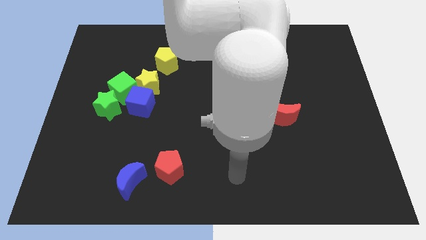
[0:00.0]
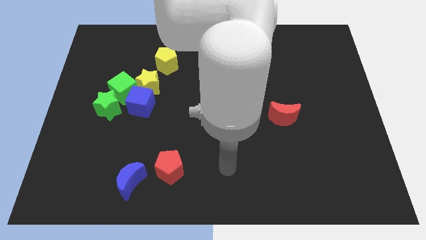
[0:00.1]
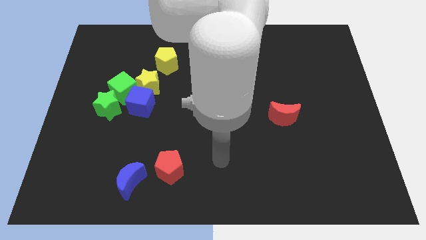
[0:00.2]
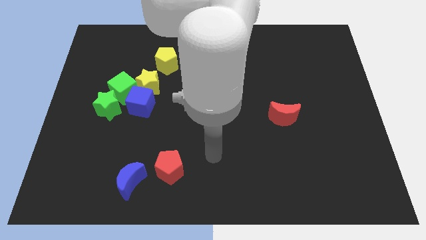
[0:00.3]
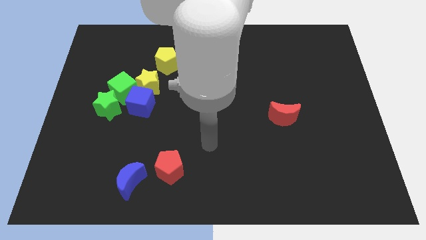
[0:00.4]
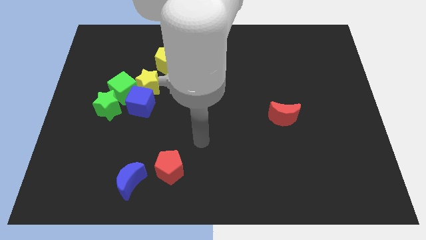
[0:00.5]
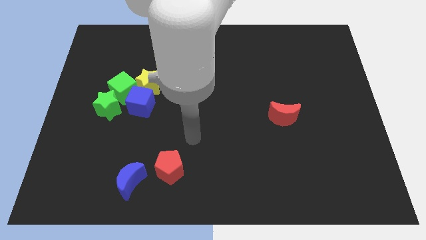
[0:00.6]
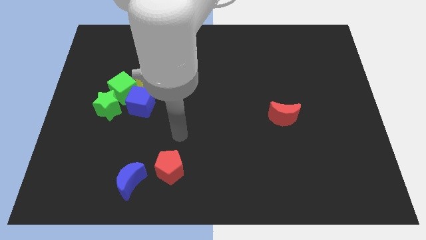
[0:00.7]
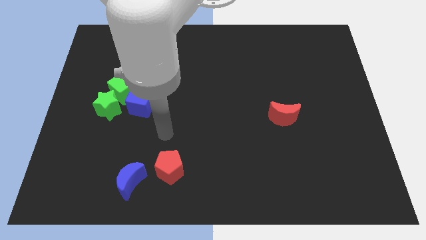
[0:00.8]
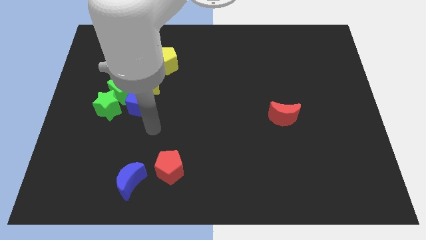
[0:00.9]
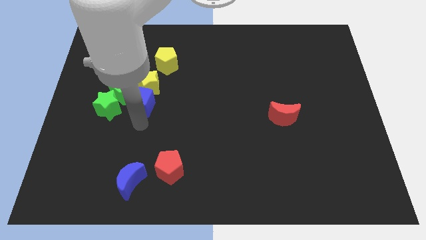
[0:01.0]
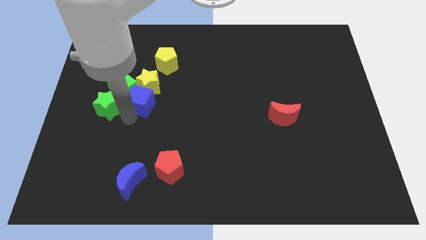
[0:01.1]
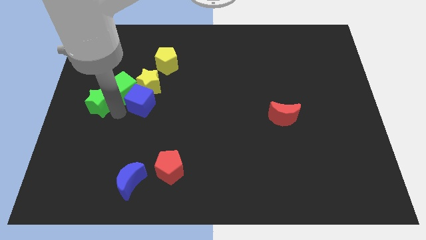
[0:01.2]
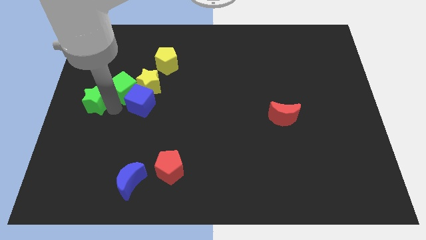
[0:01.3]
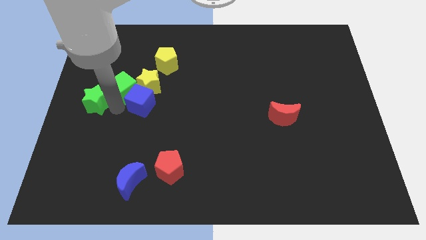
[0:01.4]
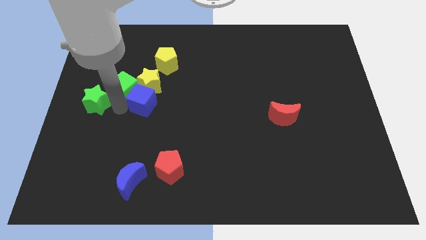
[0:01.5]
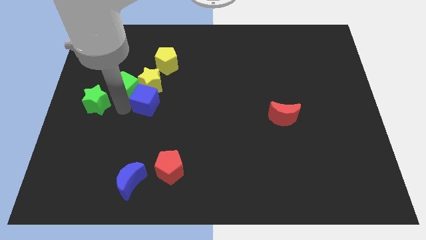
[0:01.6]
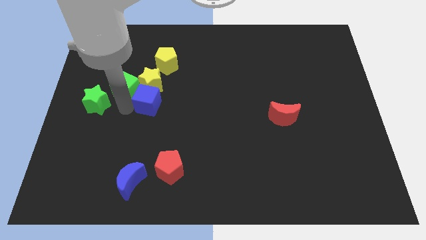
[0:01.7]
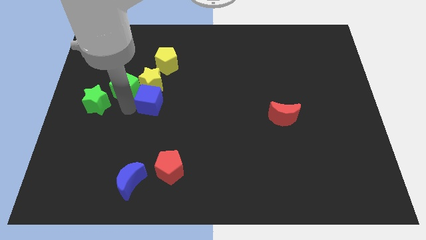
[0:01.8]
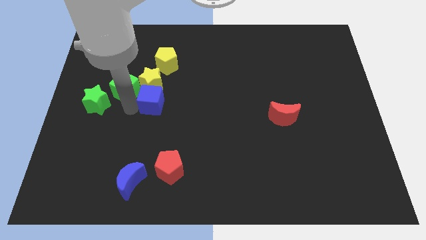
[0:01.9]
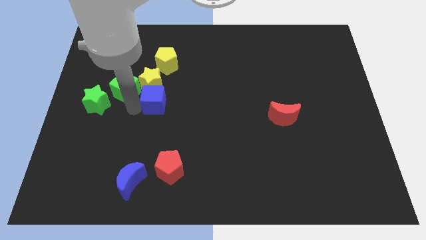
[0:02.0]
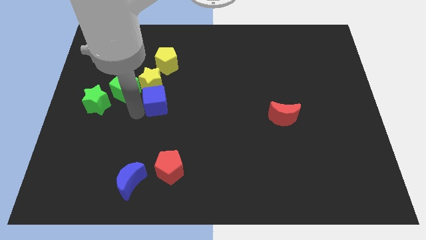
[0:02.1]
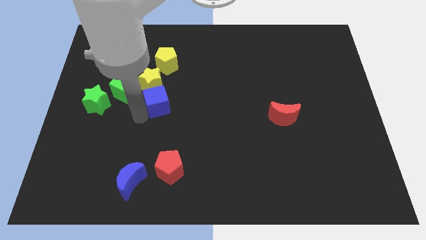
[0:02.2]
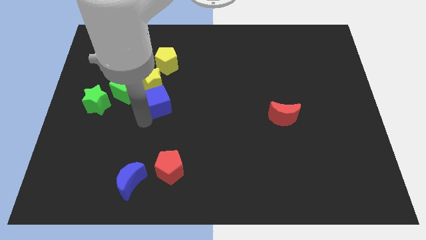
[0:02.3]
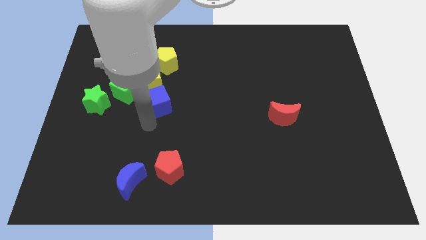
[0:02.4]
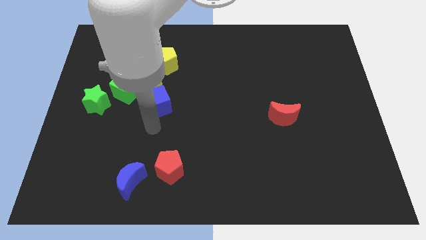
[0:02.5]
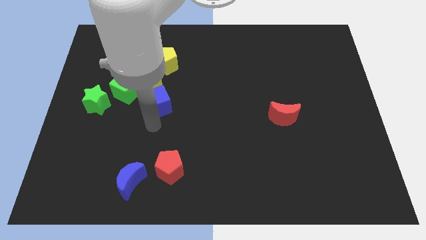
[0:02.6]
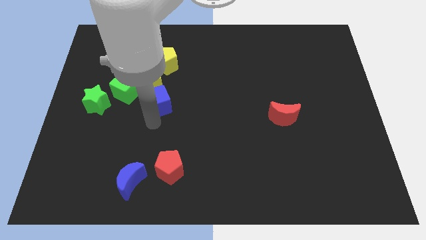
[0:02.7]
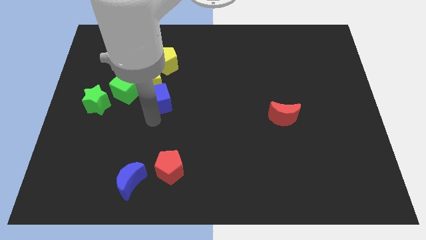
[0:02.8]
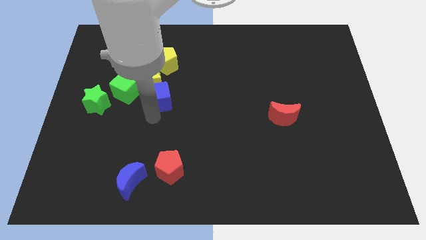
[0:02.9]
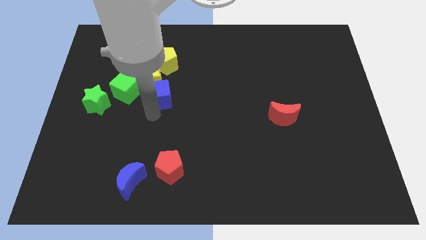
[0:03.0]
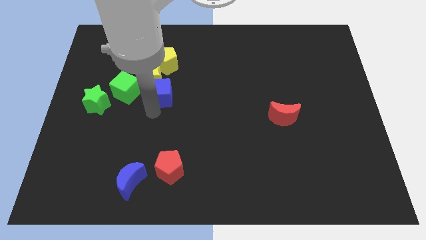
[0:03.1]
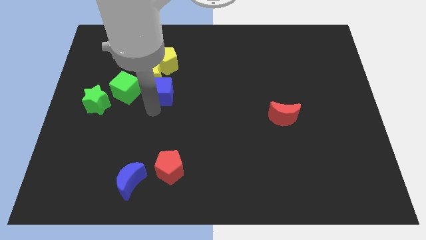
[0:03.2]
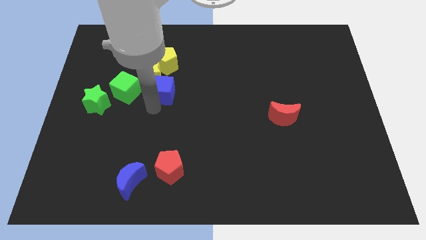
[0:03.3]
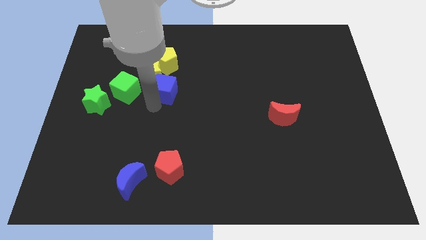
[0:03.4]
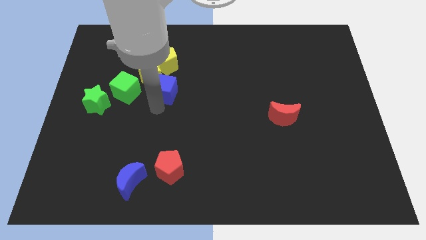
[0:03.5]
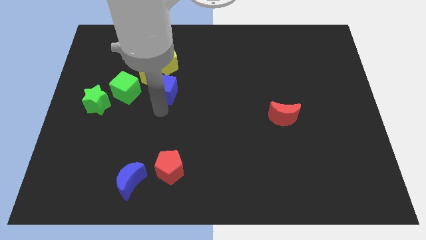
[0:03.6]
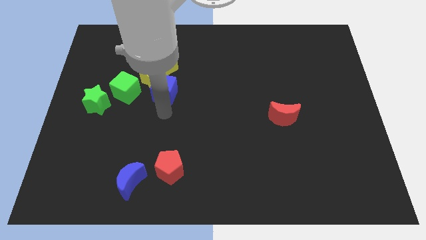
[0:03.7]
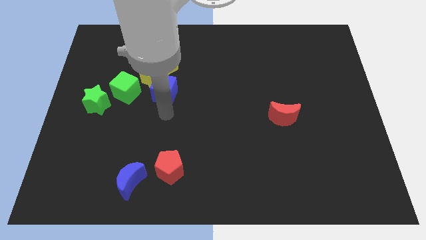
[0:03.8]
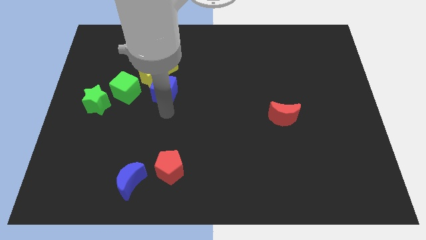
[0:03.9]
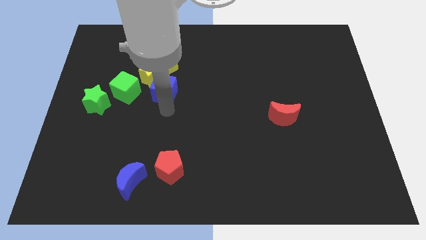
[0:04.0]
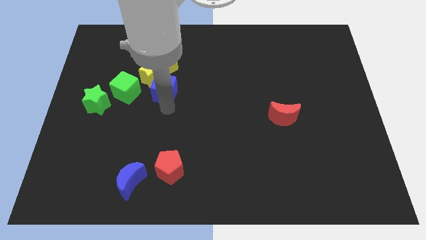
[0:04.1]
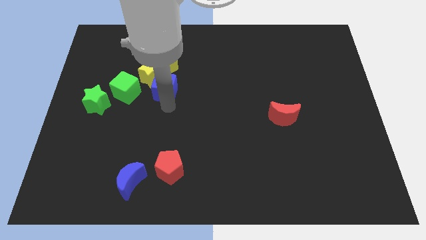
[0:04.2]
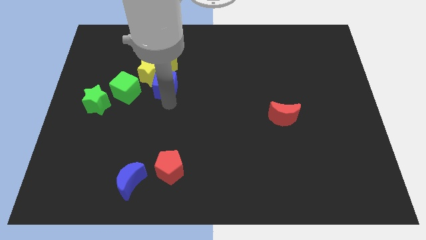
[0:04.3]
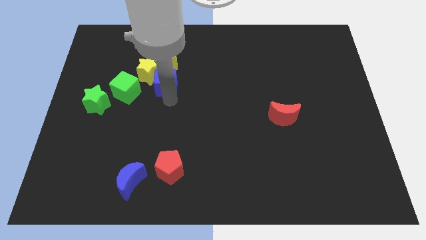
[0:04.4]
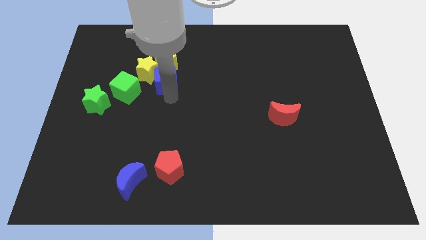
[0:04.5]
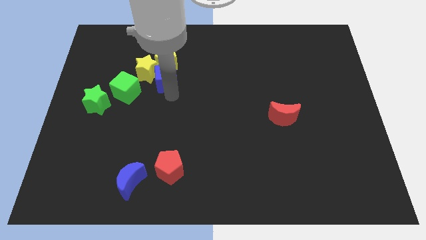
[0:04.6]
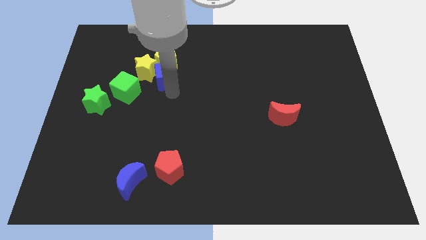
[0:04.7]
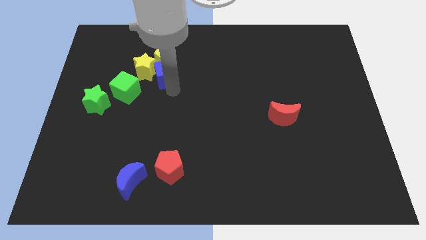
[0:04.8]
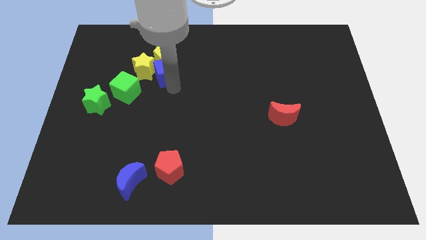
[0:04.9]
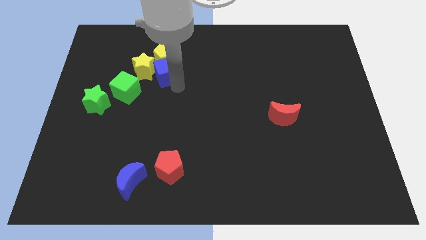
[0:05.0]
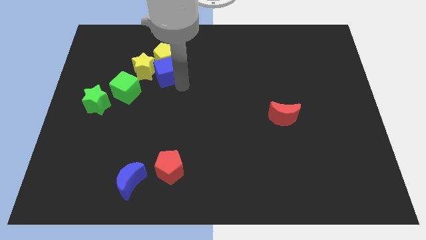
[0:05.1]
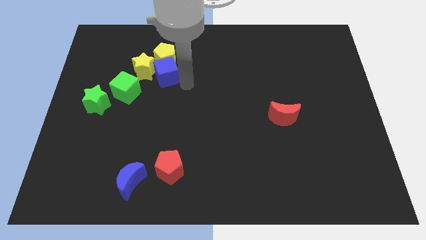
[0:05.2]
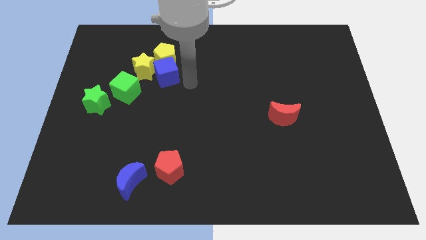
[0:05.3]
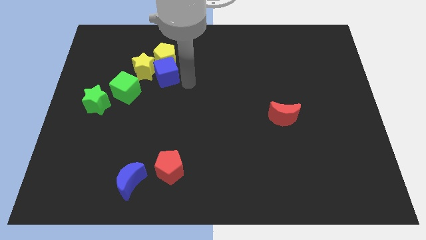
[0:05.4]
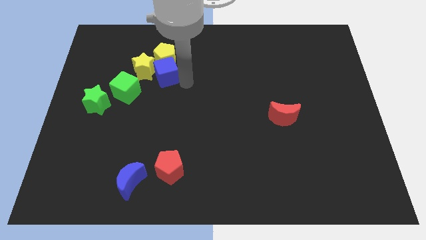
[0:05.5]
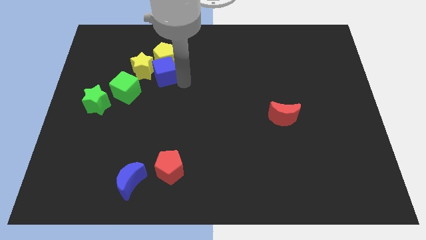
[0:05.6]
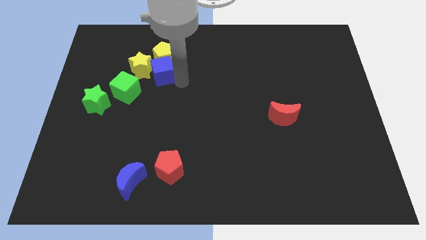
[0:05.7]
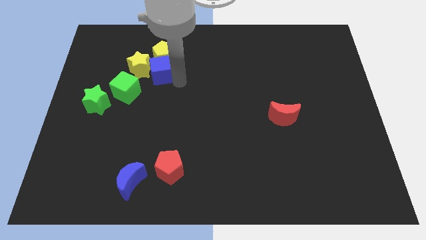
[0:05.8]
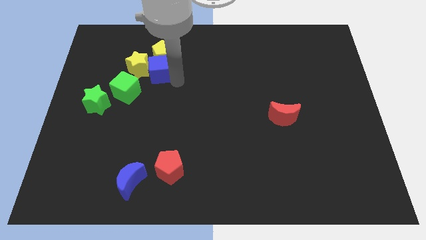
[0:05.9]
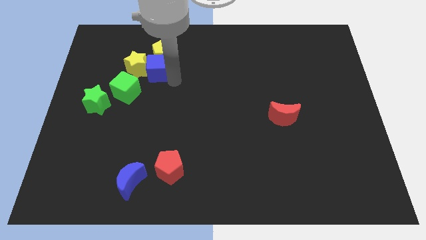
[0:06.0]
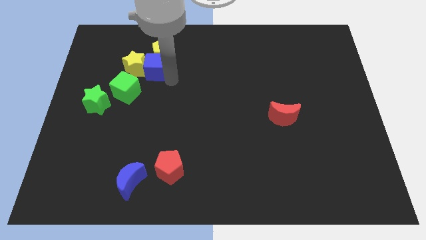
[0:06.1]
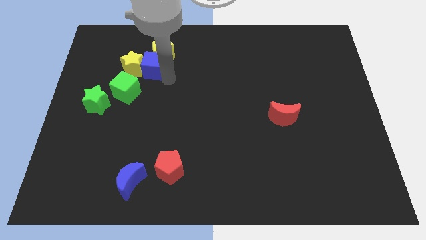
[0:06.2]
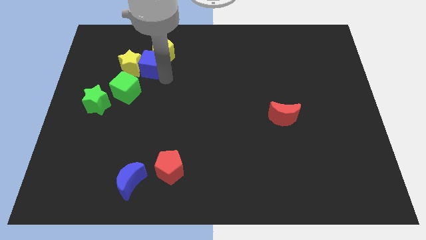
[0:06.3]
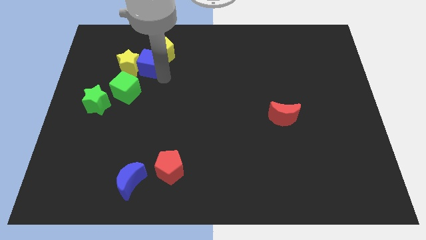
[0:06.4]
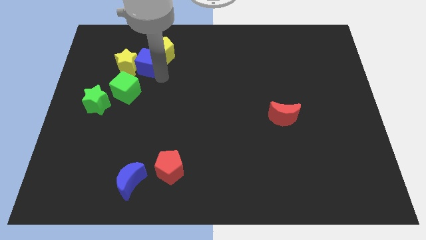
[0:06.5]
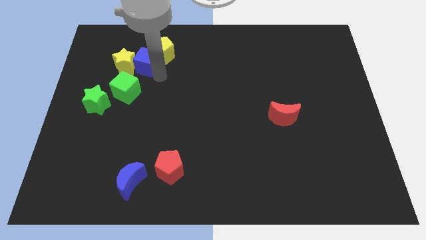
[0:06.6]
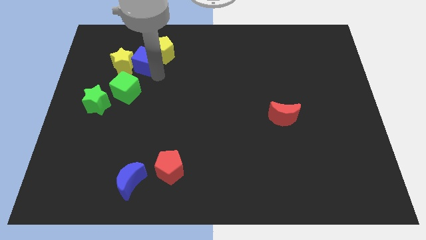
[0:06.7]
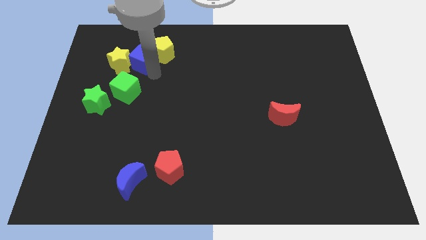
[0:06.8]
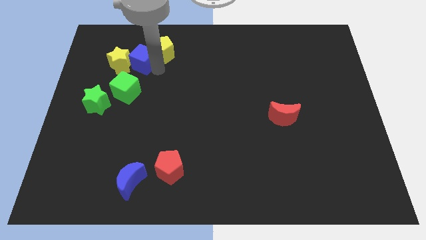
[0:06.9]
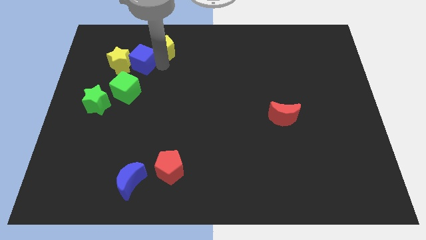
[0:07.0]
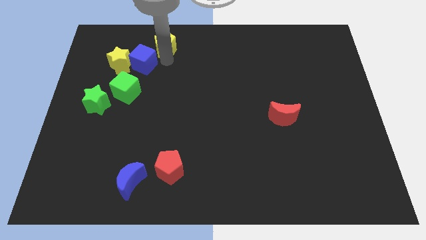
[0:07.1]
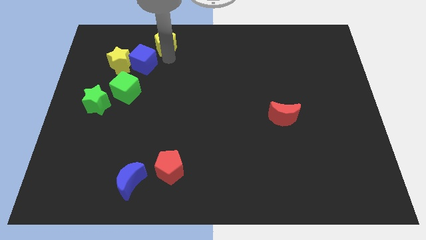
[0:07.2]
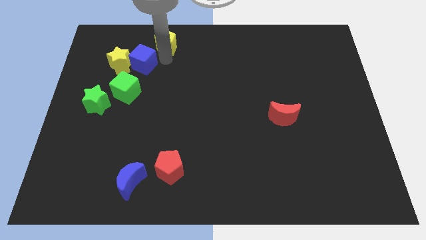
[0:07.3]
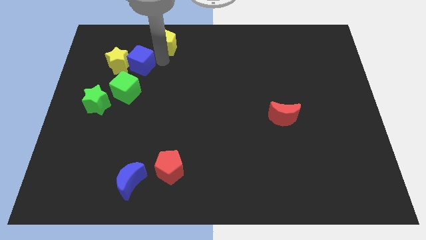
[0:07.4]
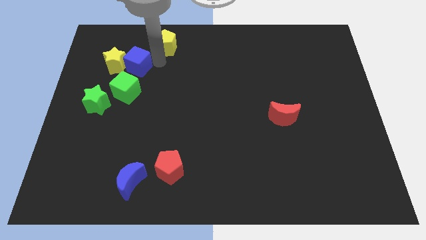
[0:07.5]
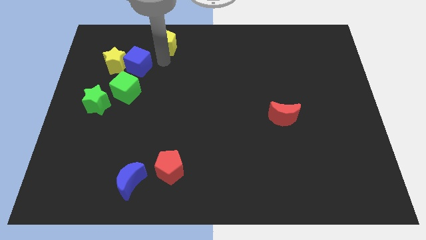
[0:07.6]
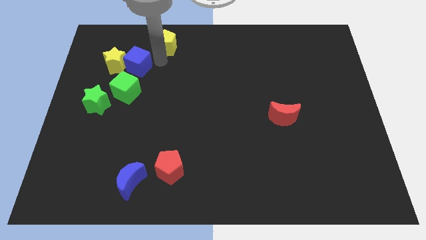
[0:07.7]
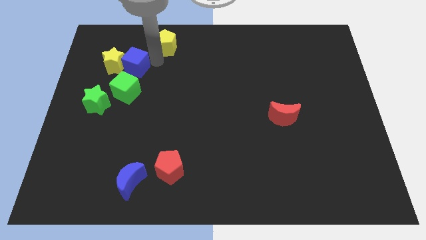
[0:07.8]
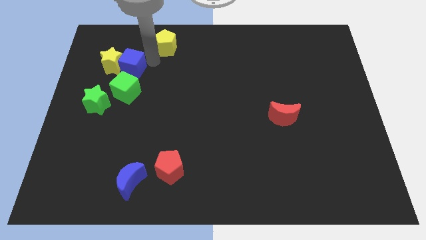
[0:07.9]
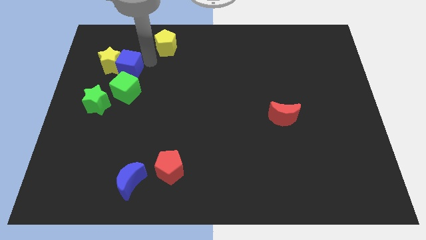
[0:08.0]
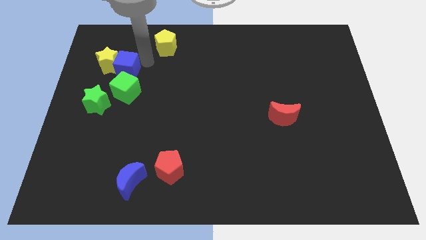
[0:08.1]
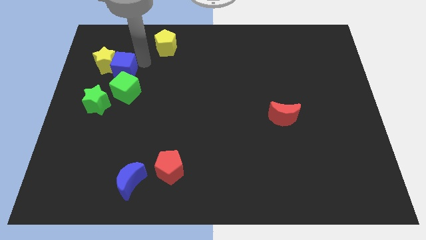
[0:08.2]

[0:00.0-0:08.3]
slide the blue cube to the top of the green star

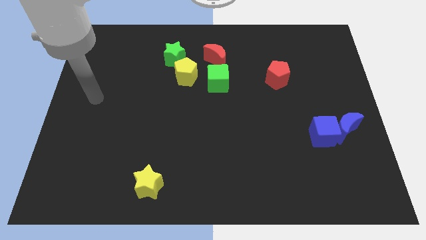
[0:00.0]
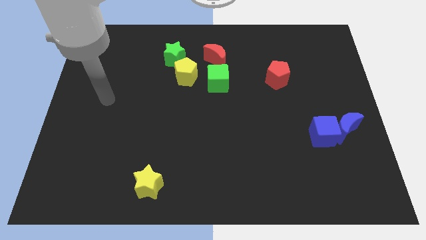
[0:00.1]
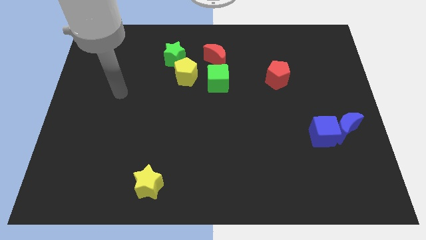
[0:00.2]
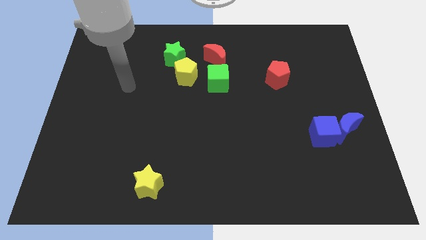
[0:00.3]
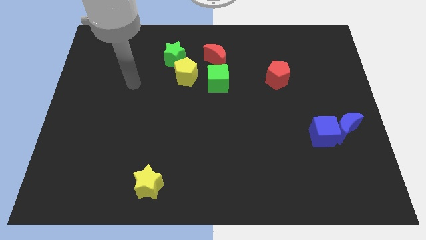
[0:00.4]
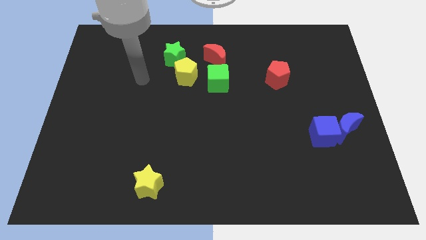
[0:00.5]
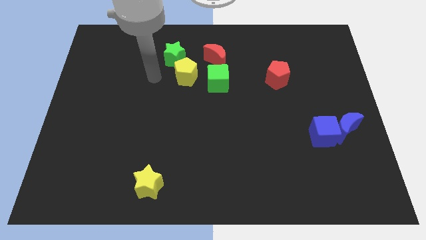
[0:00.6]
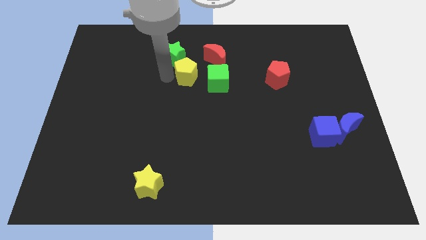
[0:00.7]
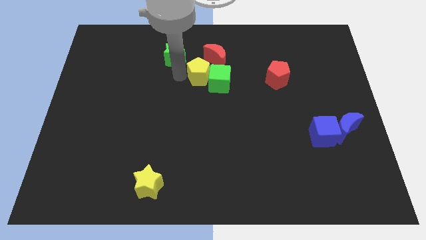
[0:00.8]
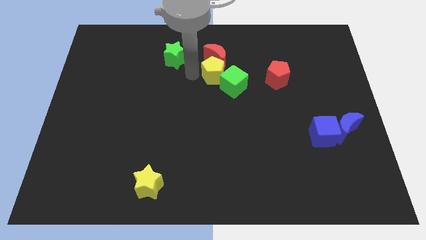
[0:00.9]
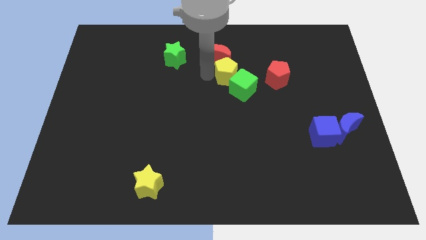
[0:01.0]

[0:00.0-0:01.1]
slide the green cube diagonally down and to the left of the red pentagon
